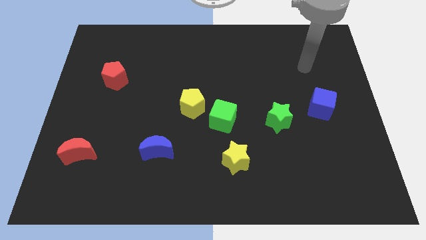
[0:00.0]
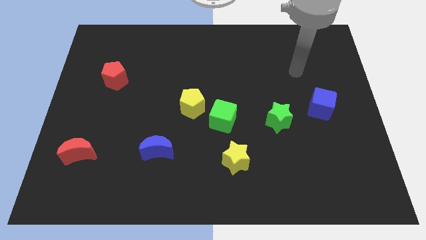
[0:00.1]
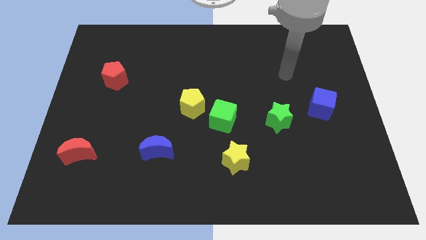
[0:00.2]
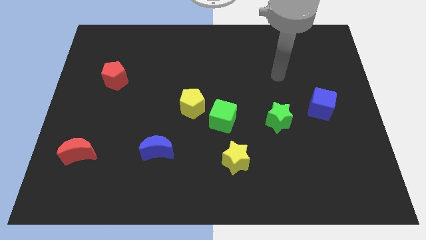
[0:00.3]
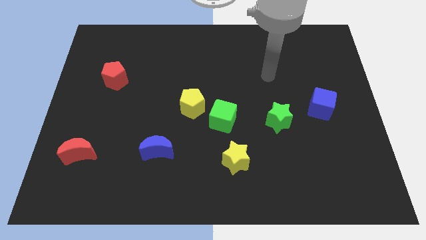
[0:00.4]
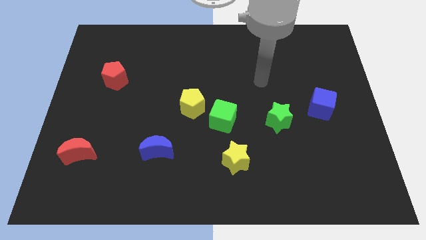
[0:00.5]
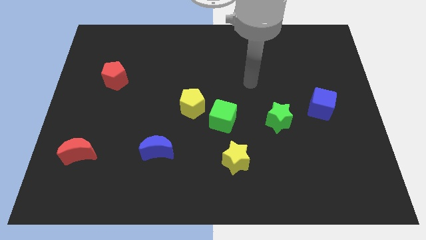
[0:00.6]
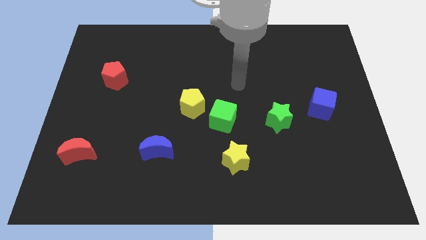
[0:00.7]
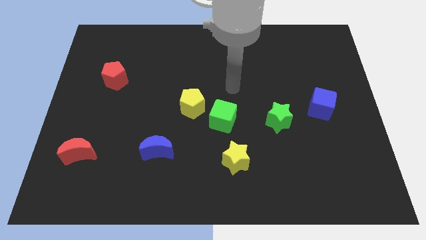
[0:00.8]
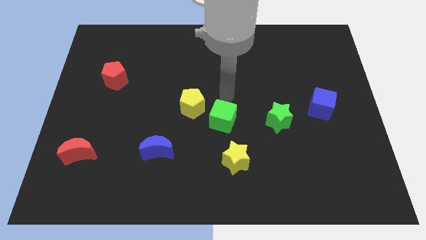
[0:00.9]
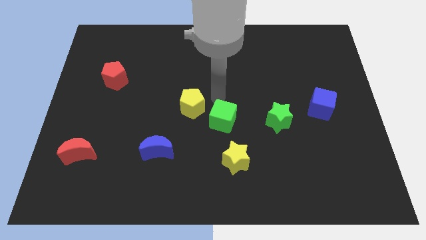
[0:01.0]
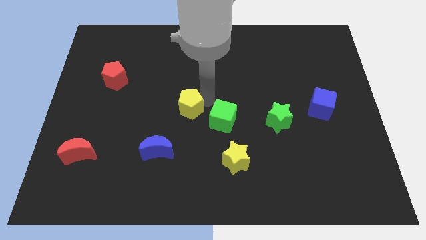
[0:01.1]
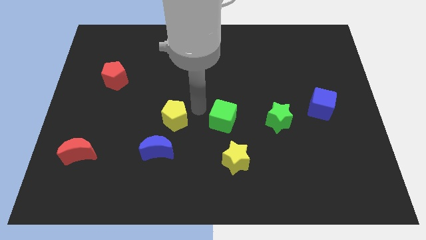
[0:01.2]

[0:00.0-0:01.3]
separate the green cube from the yellow pentagon

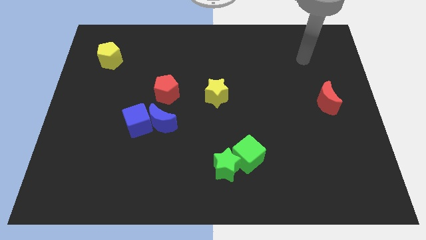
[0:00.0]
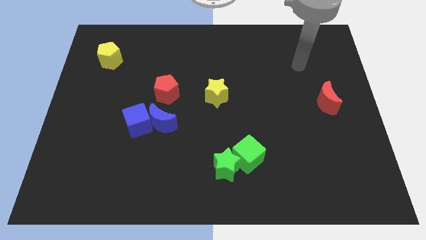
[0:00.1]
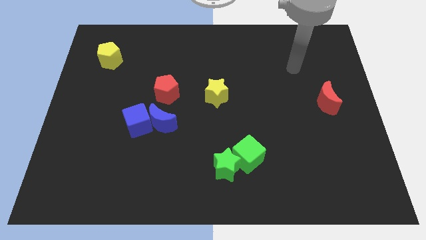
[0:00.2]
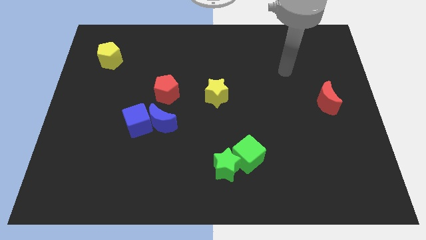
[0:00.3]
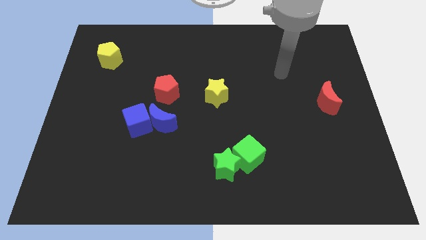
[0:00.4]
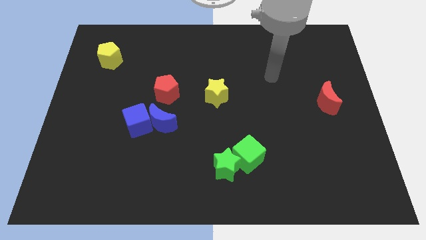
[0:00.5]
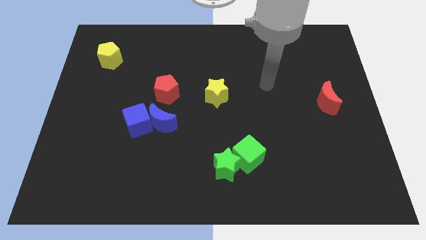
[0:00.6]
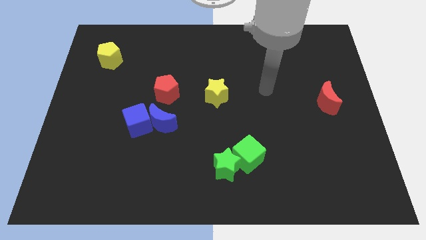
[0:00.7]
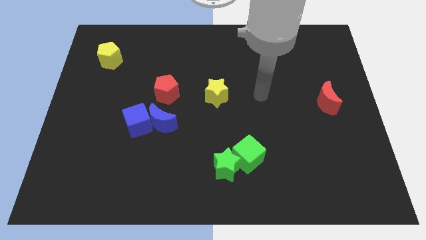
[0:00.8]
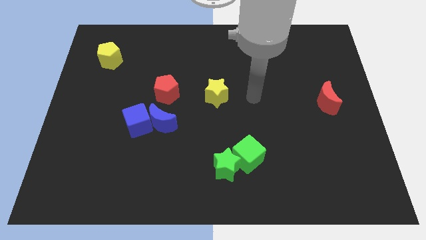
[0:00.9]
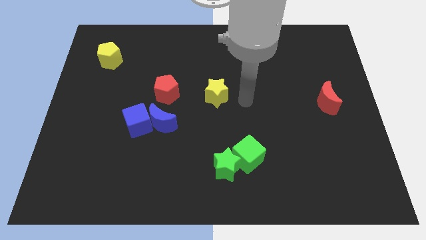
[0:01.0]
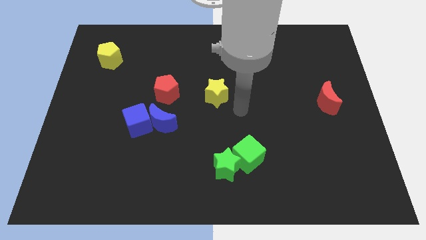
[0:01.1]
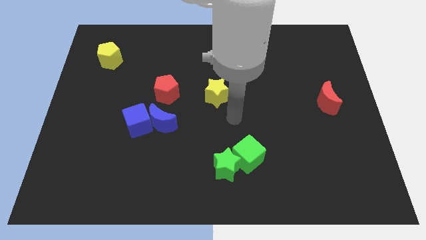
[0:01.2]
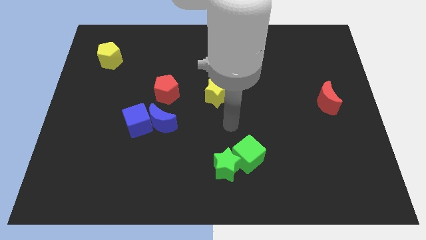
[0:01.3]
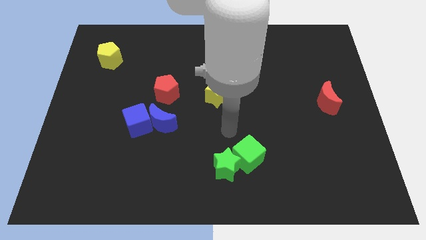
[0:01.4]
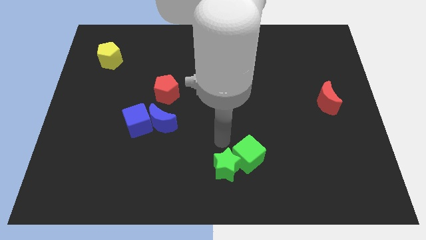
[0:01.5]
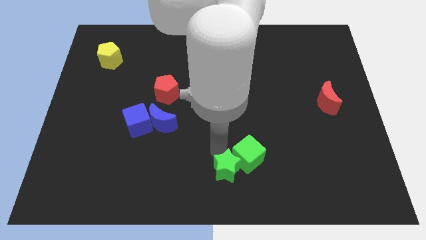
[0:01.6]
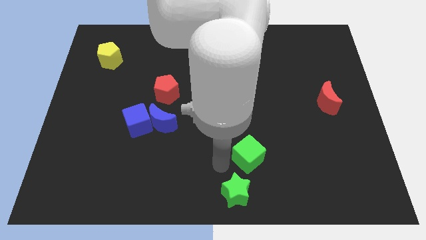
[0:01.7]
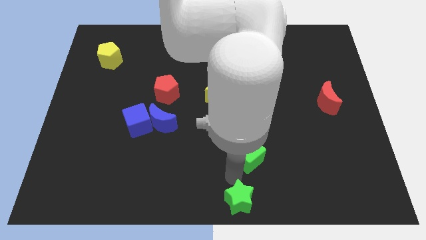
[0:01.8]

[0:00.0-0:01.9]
move the green cube away from the green star

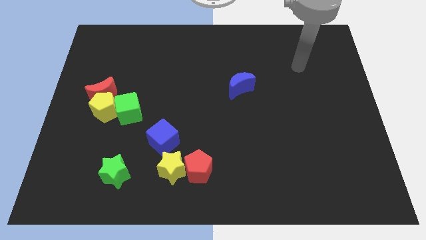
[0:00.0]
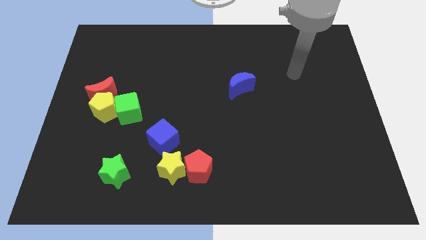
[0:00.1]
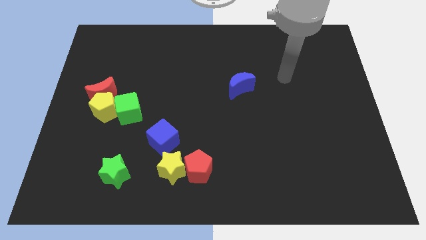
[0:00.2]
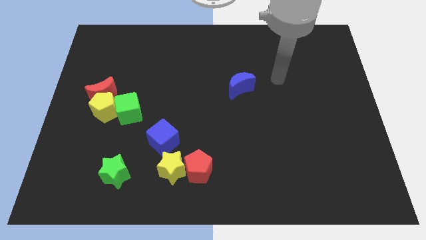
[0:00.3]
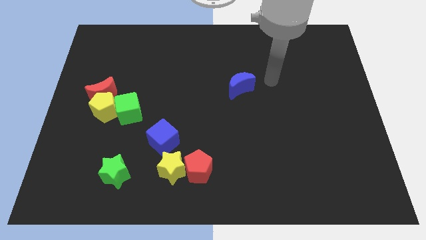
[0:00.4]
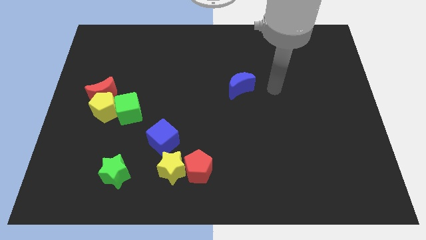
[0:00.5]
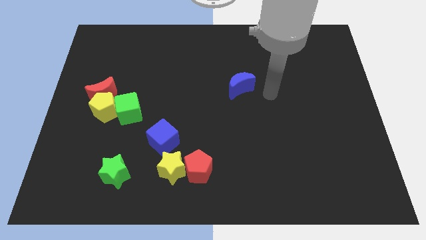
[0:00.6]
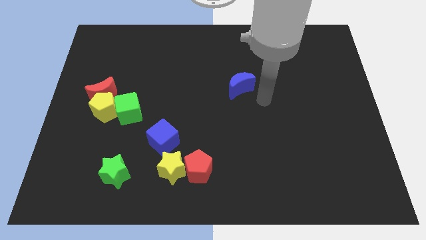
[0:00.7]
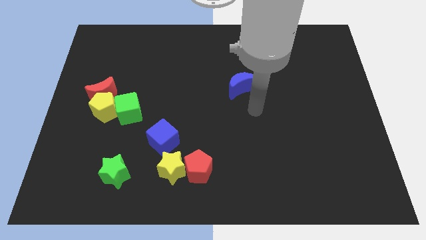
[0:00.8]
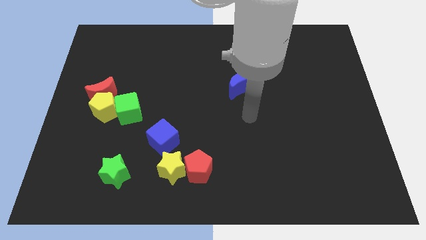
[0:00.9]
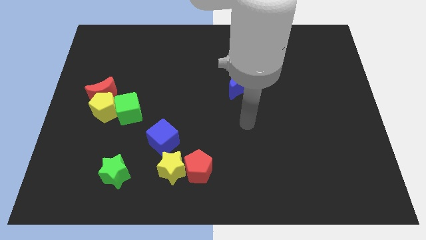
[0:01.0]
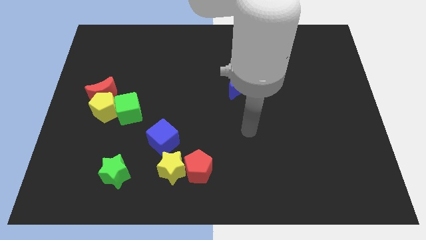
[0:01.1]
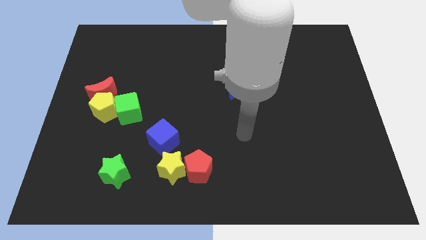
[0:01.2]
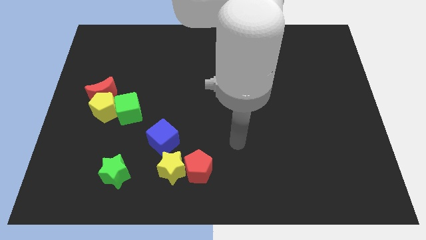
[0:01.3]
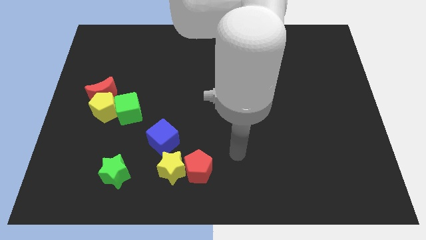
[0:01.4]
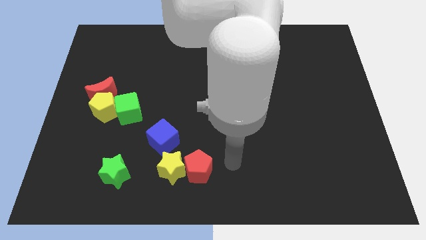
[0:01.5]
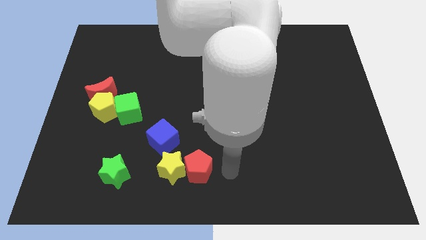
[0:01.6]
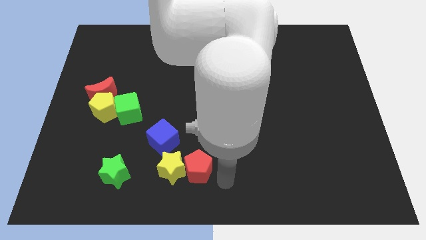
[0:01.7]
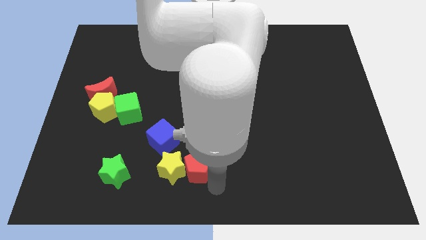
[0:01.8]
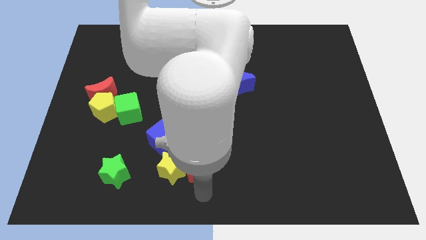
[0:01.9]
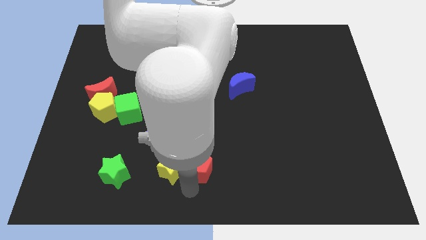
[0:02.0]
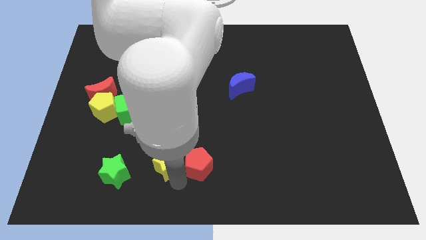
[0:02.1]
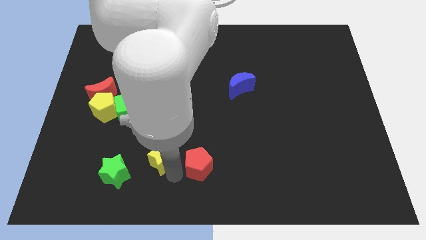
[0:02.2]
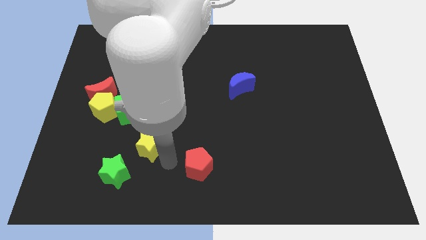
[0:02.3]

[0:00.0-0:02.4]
separate the red pentagon from the yellow star

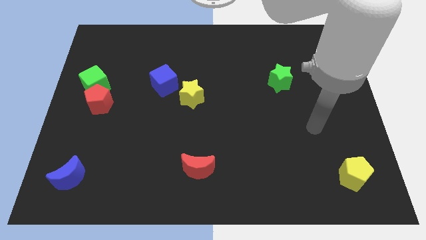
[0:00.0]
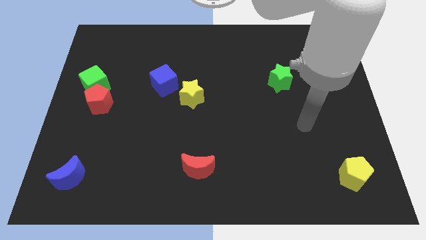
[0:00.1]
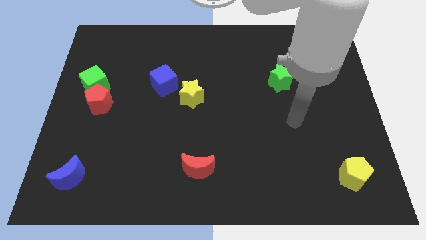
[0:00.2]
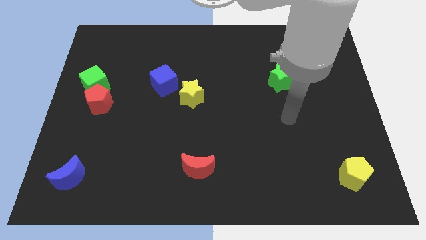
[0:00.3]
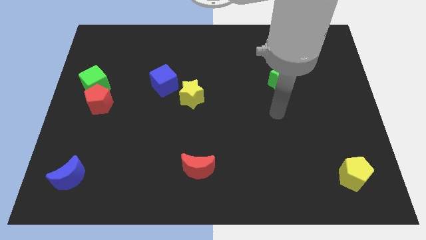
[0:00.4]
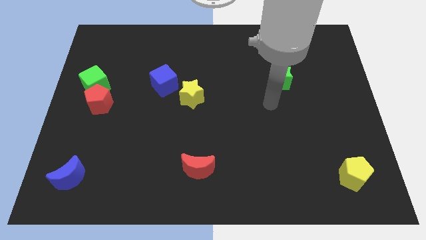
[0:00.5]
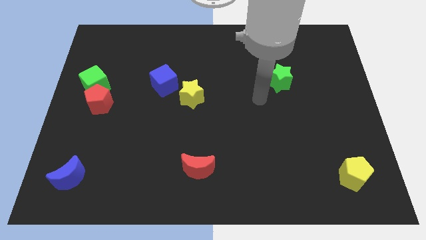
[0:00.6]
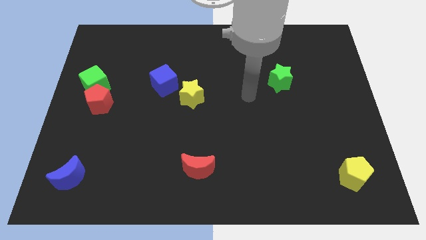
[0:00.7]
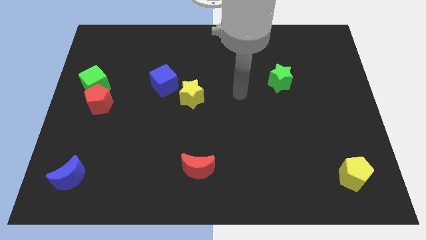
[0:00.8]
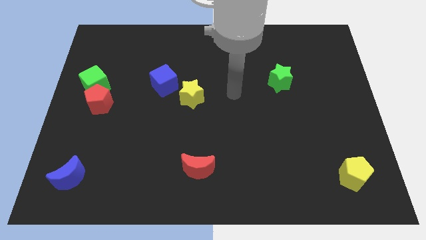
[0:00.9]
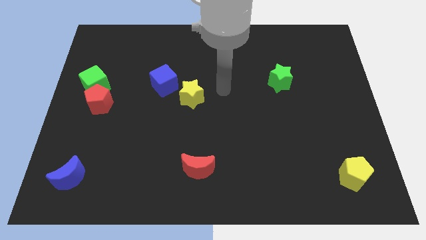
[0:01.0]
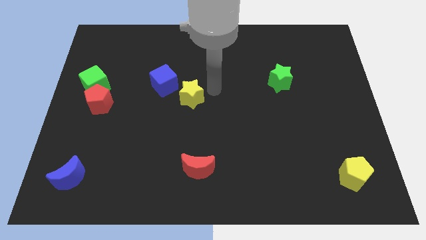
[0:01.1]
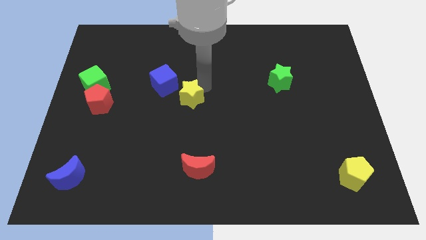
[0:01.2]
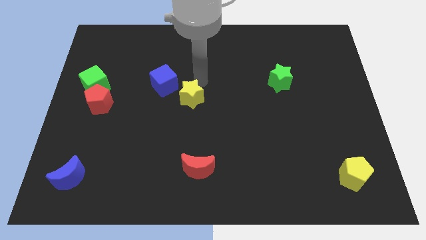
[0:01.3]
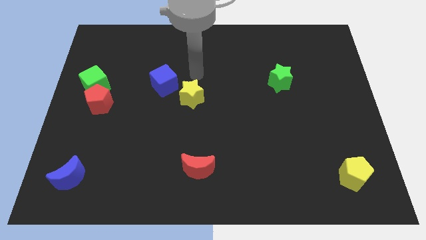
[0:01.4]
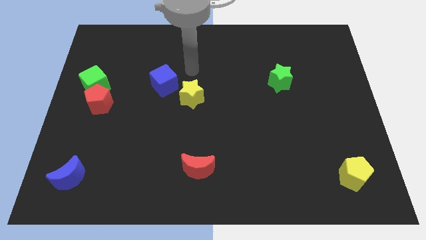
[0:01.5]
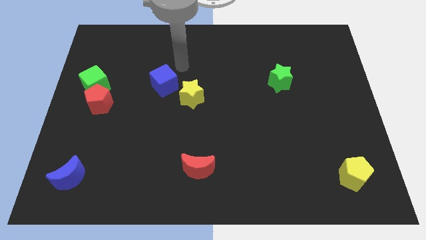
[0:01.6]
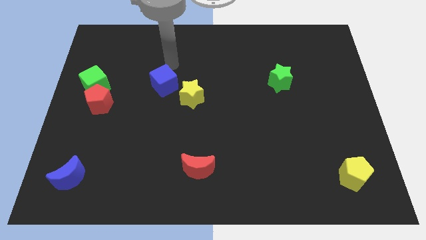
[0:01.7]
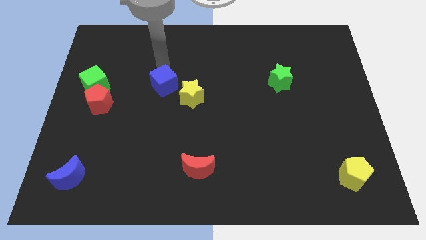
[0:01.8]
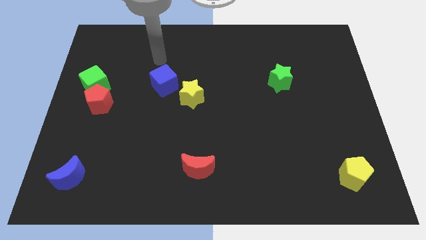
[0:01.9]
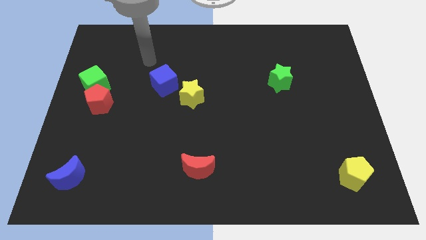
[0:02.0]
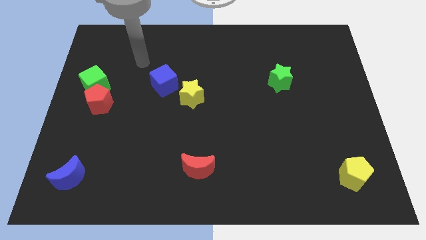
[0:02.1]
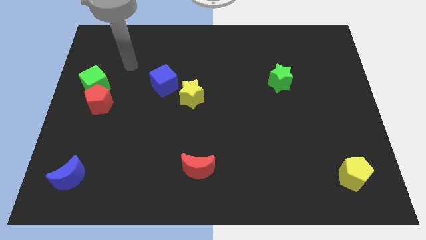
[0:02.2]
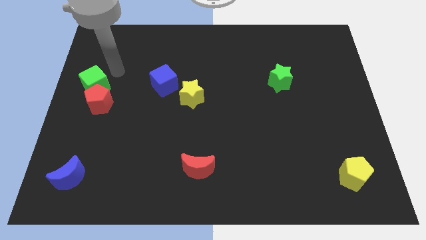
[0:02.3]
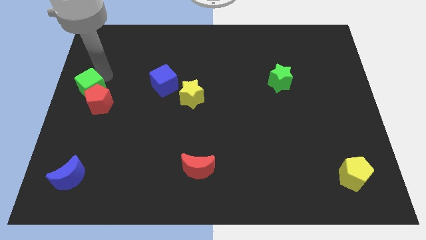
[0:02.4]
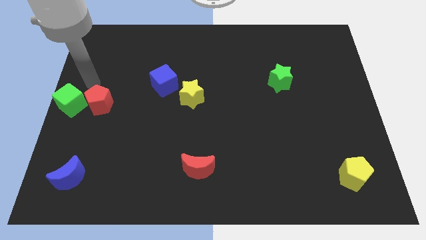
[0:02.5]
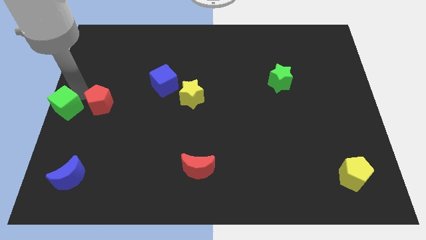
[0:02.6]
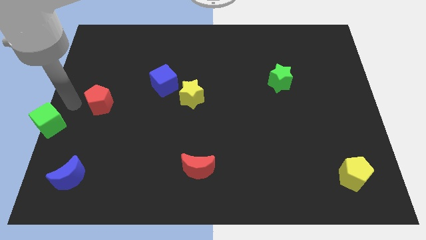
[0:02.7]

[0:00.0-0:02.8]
separate the red pentagon from the green cube

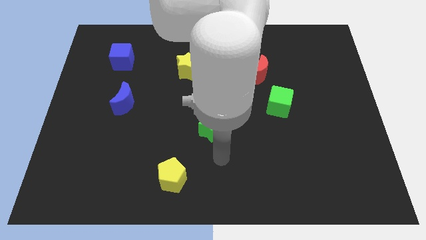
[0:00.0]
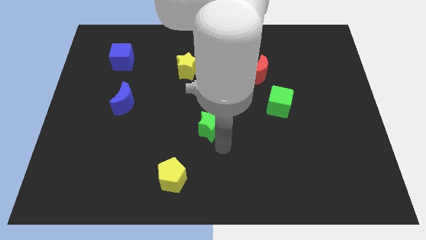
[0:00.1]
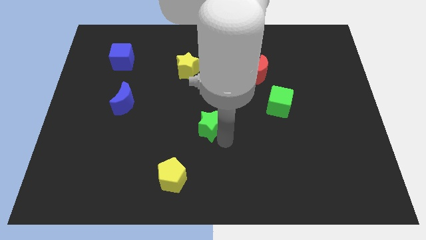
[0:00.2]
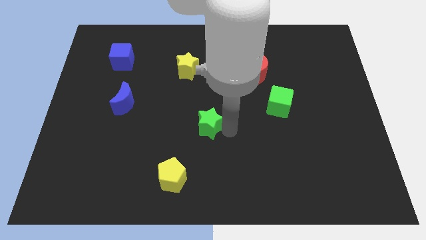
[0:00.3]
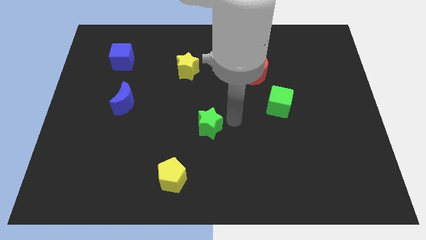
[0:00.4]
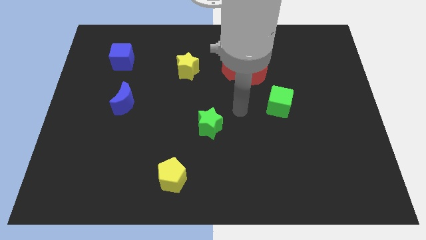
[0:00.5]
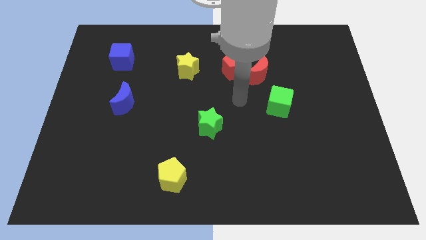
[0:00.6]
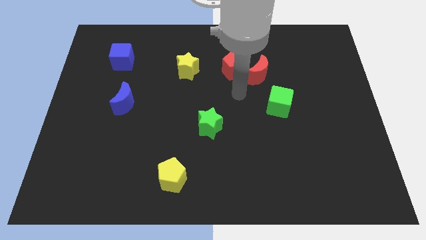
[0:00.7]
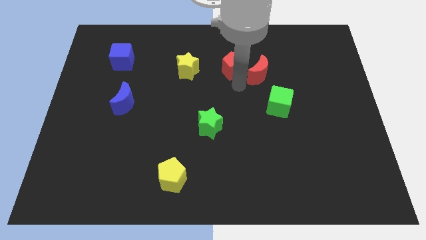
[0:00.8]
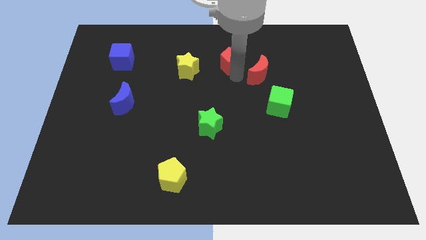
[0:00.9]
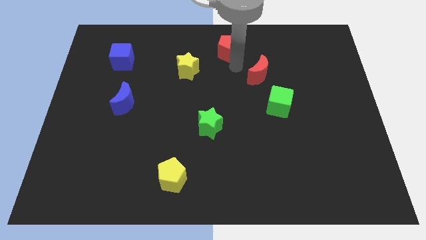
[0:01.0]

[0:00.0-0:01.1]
pull the red moon apart from the red pentagon
